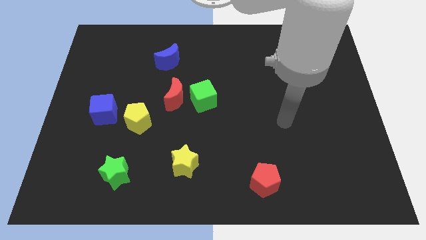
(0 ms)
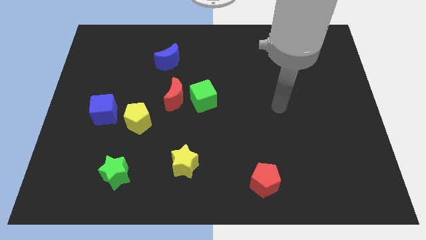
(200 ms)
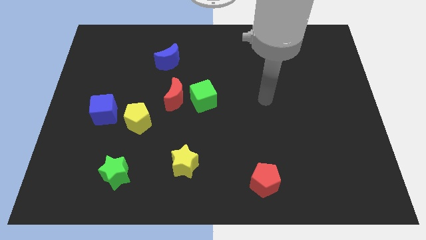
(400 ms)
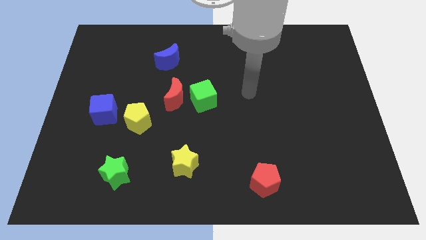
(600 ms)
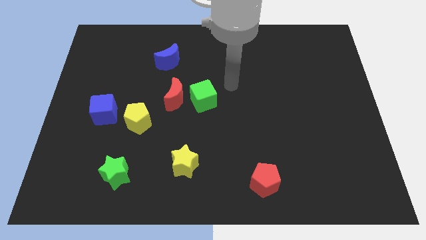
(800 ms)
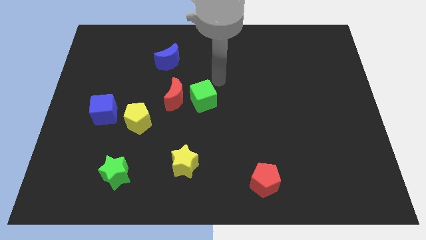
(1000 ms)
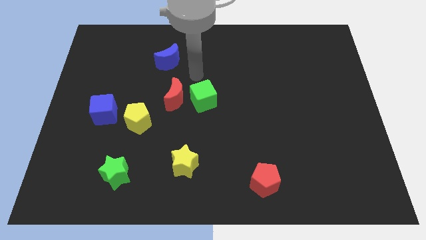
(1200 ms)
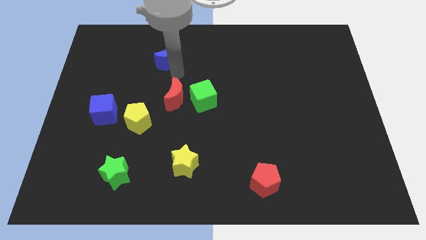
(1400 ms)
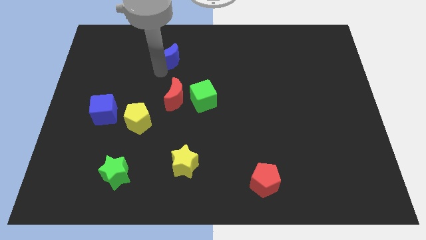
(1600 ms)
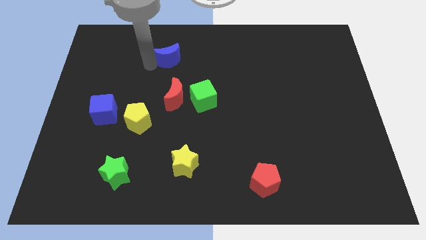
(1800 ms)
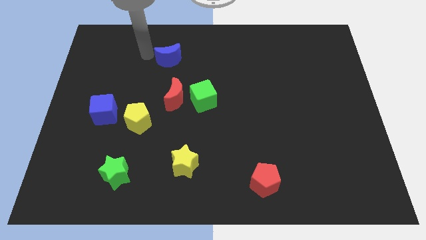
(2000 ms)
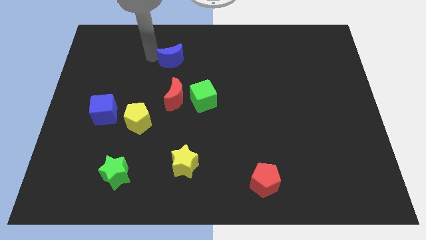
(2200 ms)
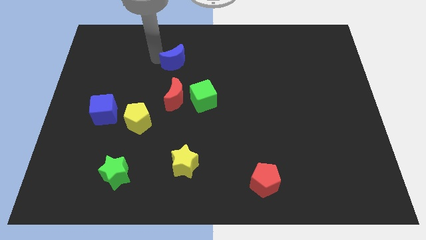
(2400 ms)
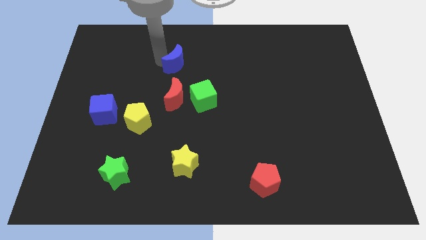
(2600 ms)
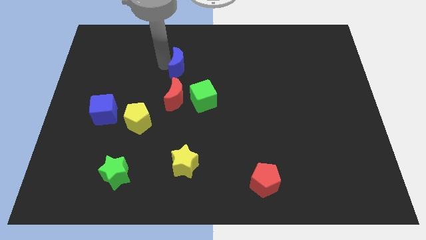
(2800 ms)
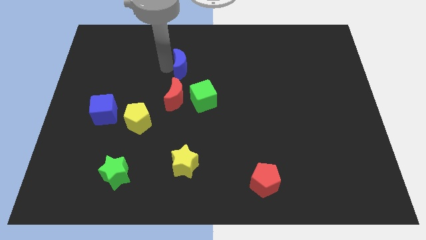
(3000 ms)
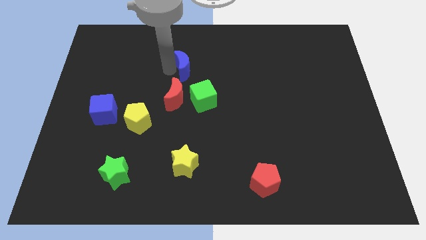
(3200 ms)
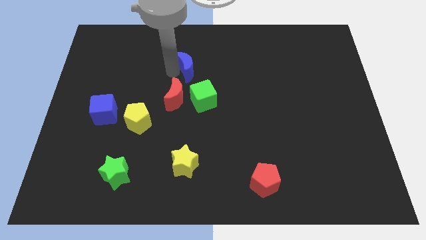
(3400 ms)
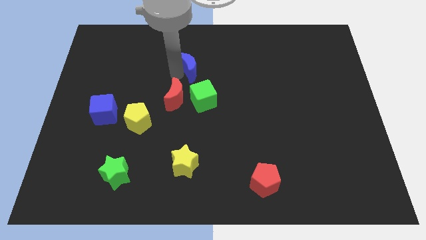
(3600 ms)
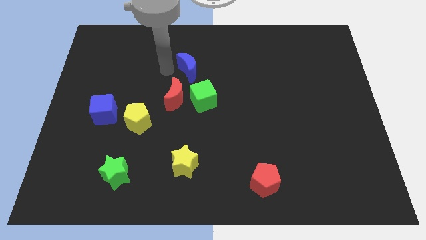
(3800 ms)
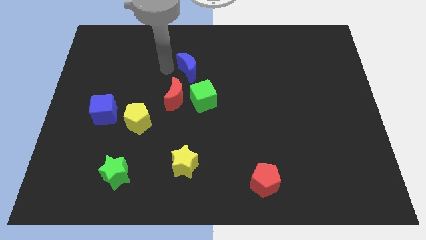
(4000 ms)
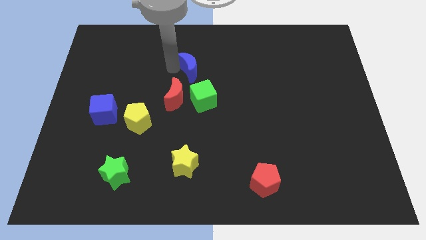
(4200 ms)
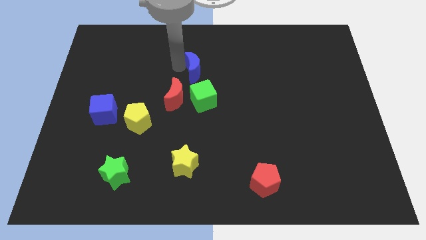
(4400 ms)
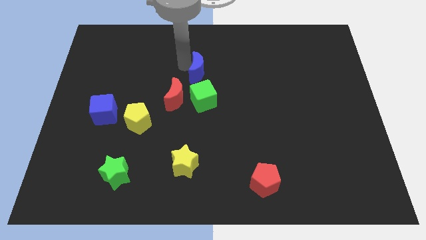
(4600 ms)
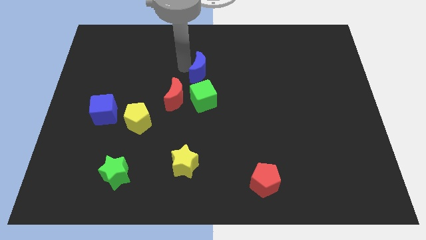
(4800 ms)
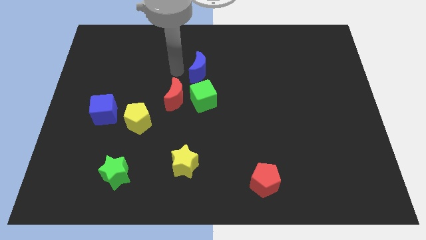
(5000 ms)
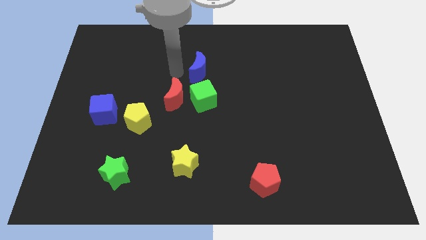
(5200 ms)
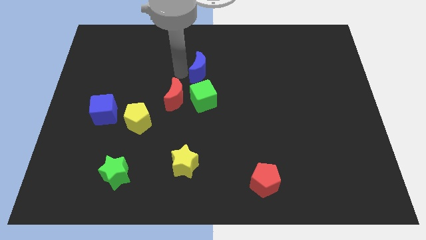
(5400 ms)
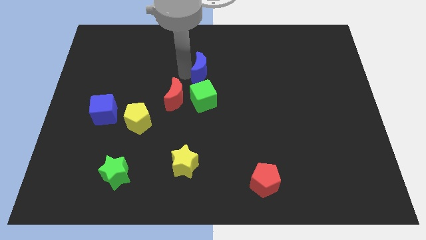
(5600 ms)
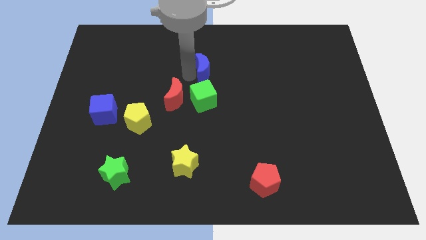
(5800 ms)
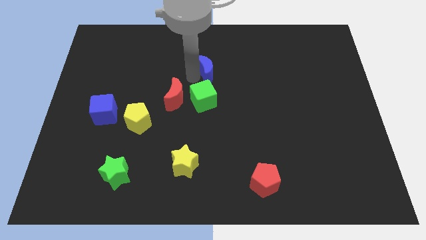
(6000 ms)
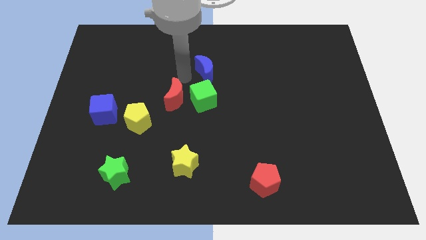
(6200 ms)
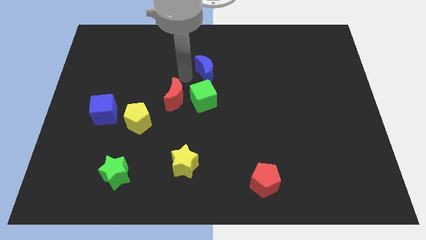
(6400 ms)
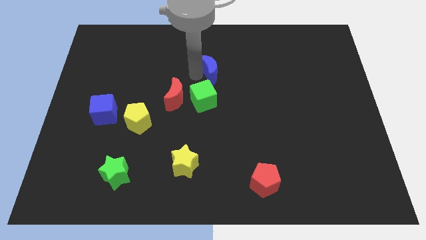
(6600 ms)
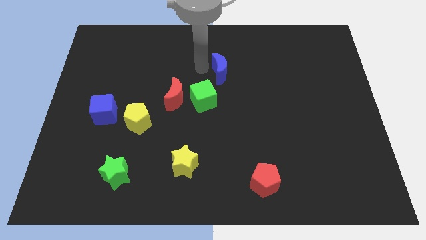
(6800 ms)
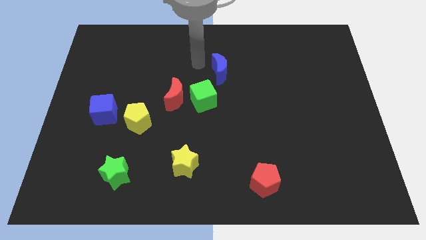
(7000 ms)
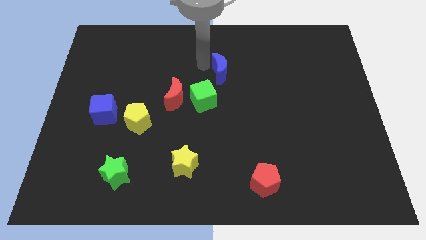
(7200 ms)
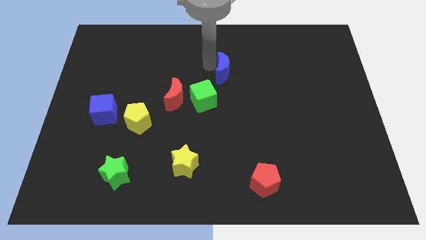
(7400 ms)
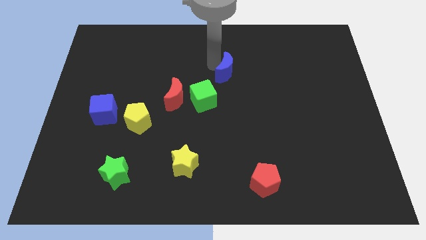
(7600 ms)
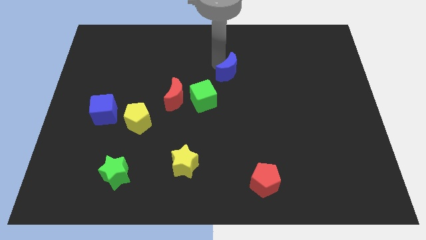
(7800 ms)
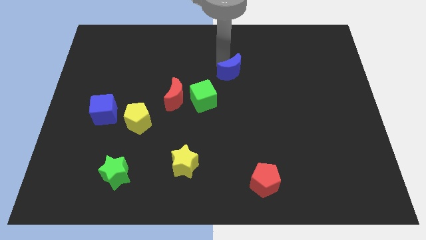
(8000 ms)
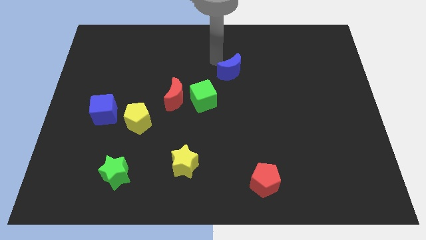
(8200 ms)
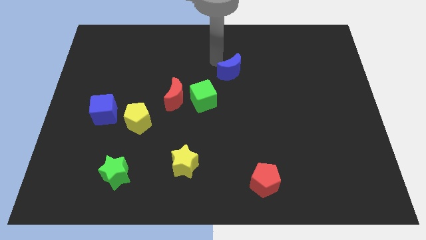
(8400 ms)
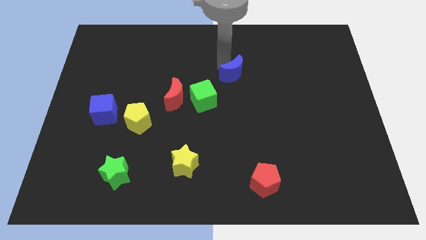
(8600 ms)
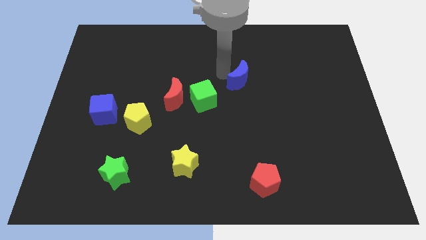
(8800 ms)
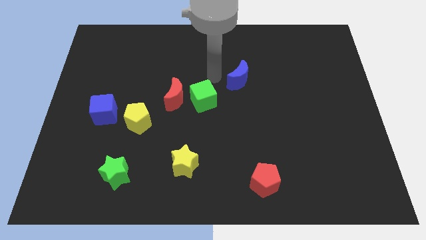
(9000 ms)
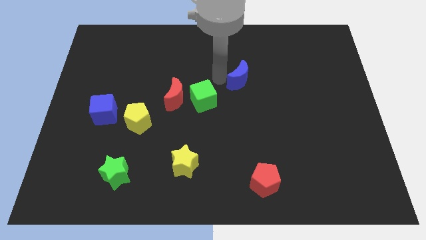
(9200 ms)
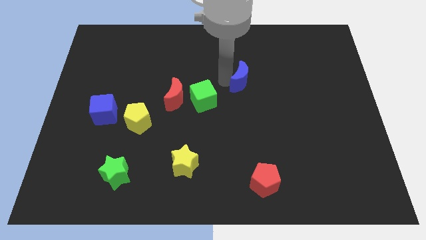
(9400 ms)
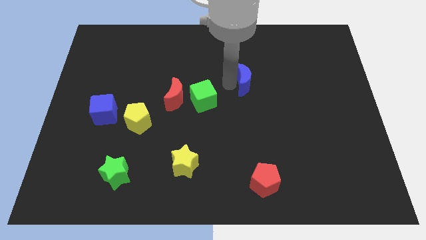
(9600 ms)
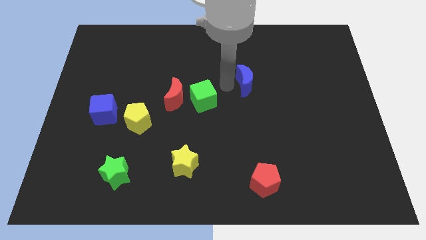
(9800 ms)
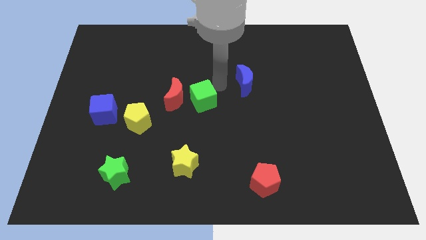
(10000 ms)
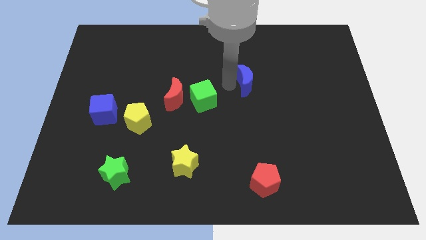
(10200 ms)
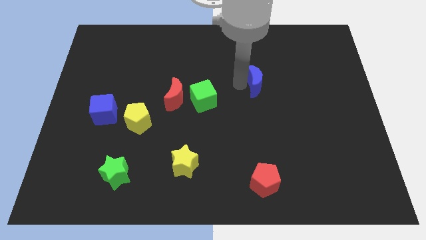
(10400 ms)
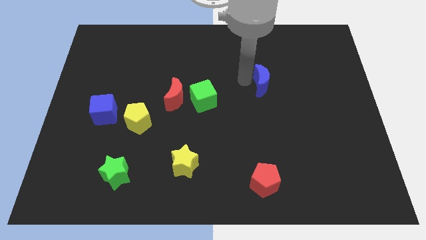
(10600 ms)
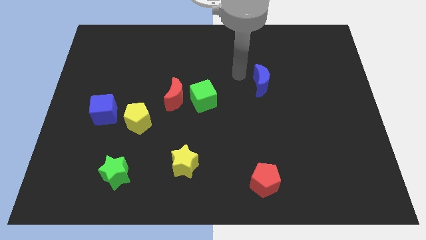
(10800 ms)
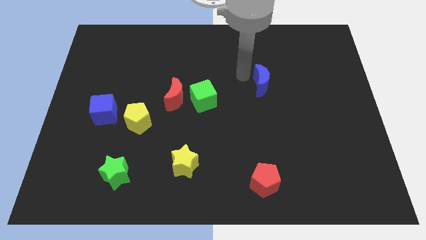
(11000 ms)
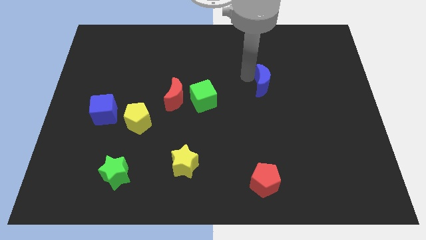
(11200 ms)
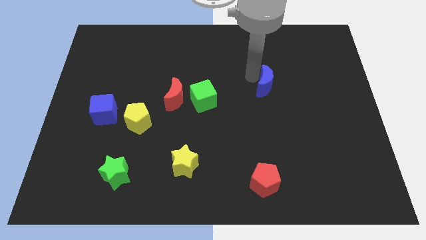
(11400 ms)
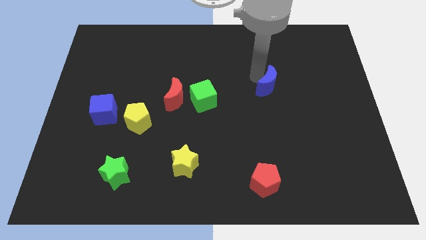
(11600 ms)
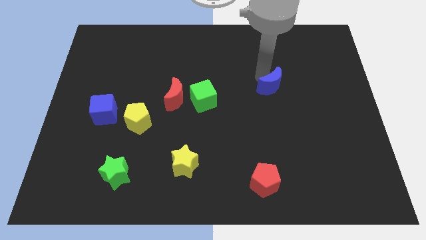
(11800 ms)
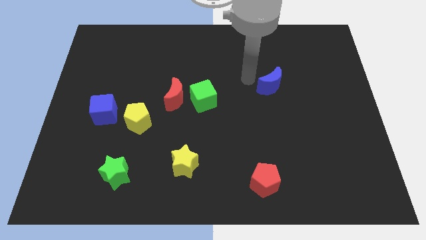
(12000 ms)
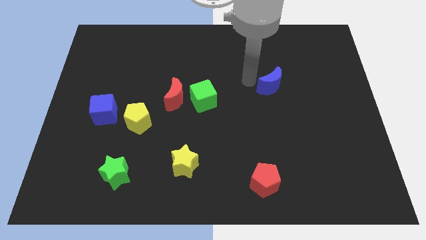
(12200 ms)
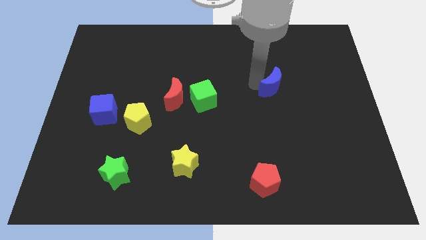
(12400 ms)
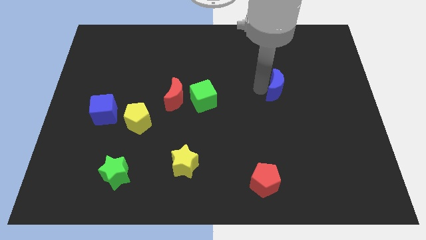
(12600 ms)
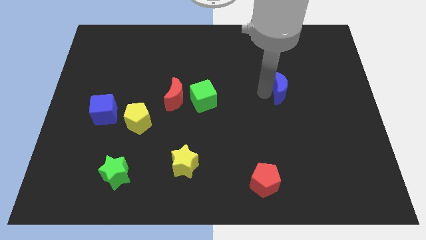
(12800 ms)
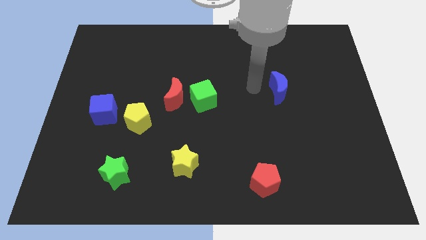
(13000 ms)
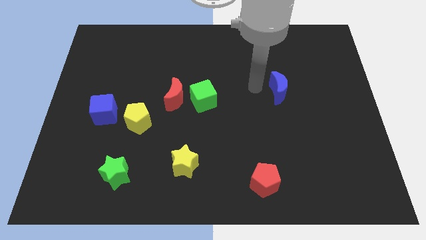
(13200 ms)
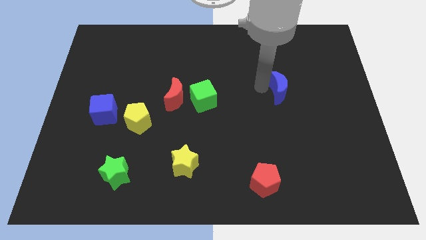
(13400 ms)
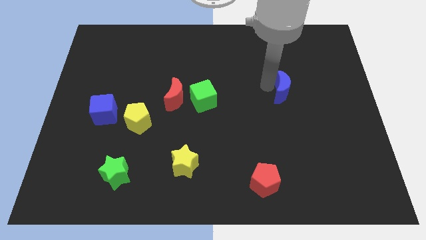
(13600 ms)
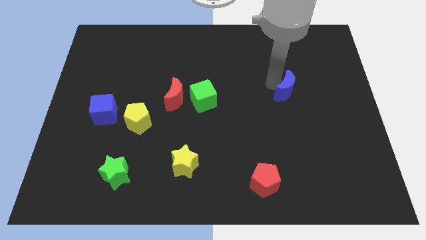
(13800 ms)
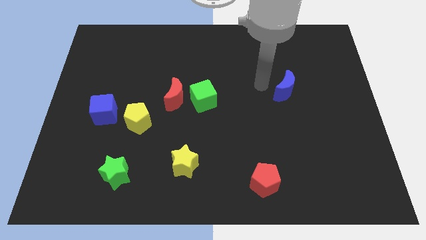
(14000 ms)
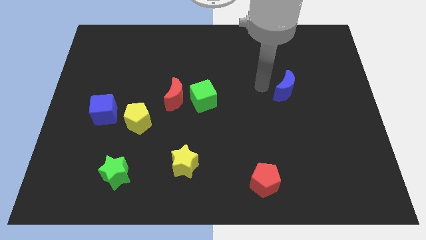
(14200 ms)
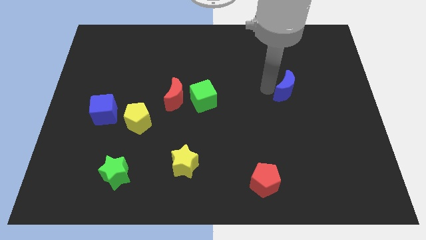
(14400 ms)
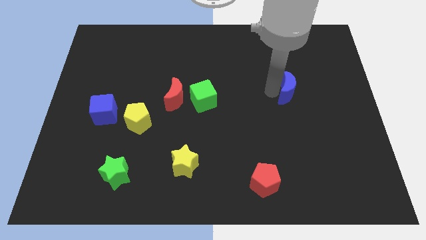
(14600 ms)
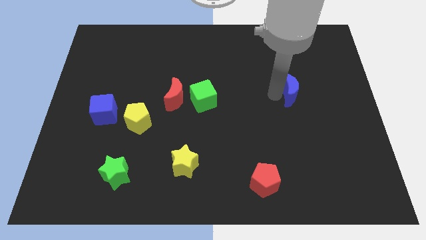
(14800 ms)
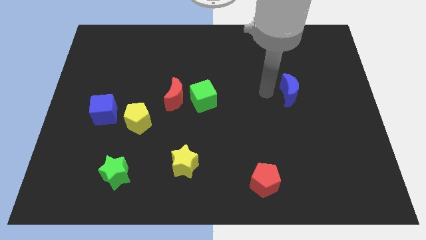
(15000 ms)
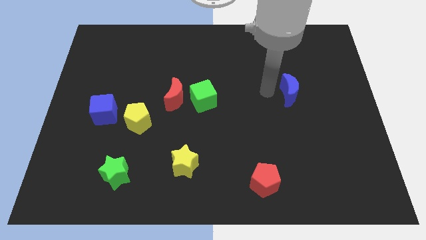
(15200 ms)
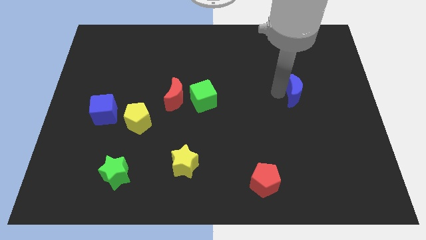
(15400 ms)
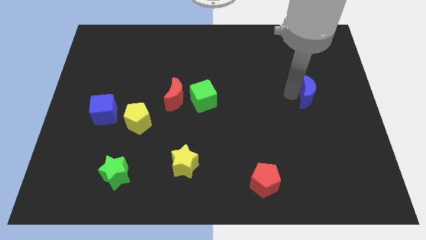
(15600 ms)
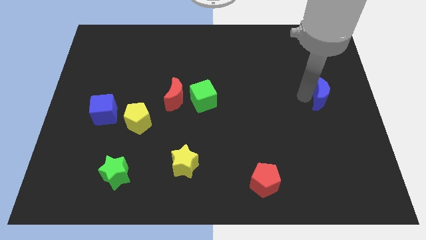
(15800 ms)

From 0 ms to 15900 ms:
move the blue moon to the right side
